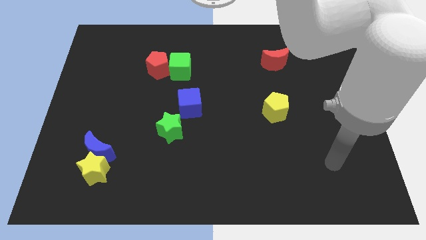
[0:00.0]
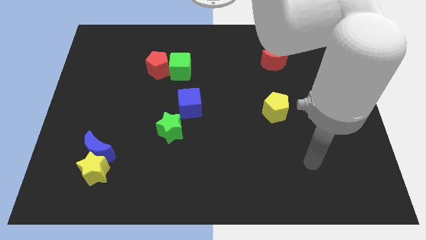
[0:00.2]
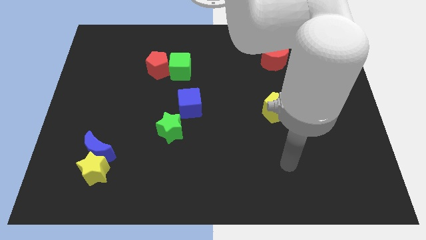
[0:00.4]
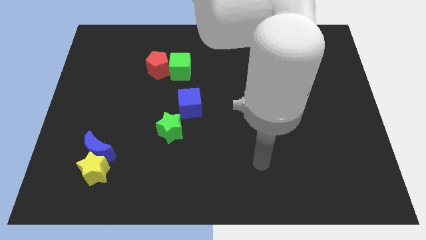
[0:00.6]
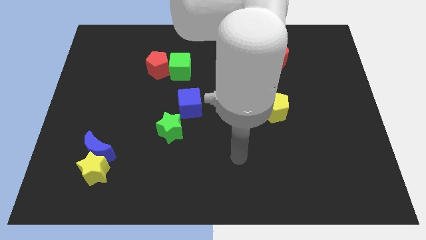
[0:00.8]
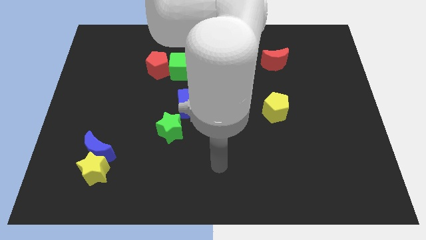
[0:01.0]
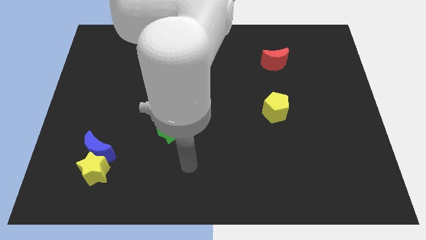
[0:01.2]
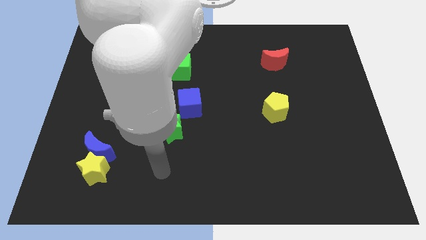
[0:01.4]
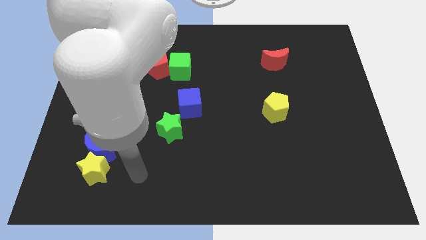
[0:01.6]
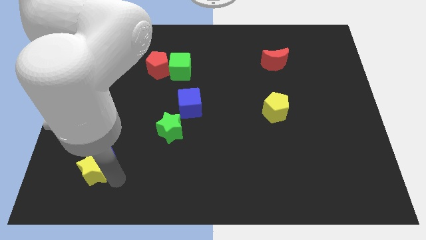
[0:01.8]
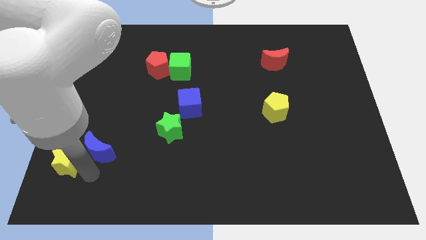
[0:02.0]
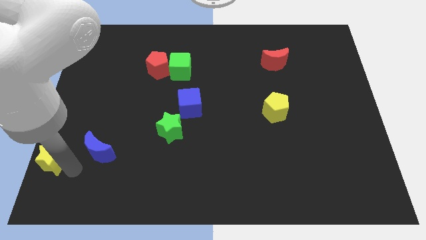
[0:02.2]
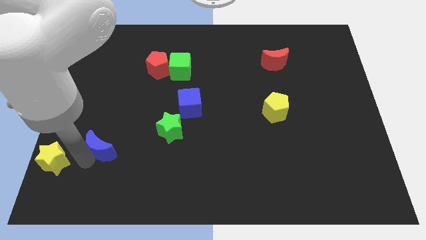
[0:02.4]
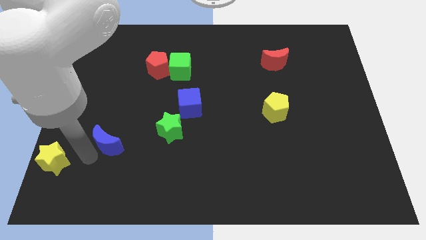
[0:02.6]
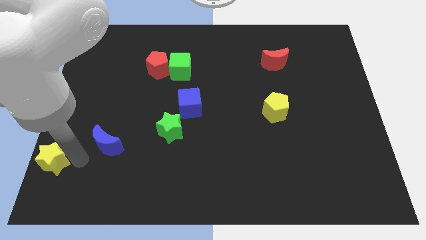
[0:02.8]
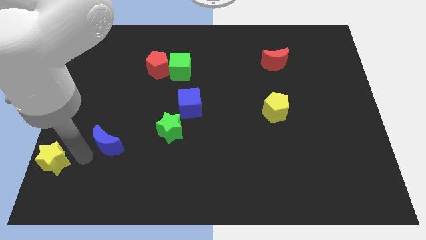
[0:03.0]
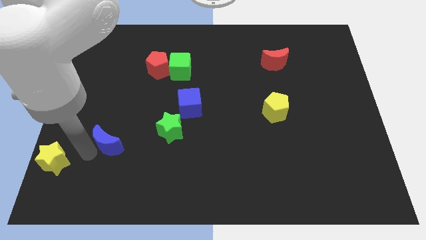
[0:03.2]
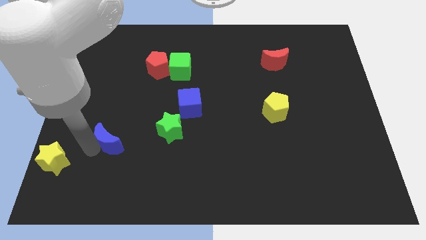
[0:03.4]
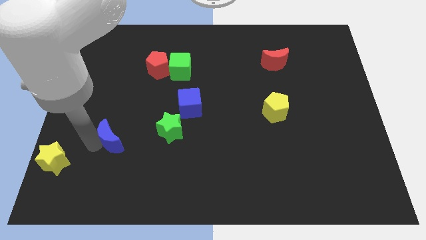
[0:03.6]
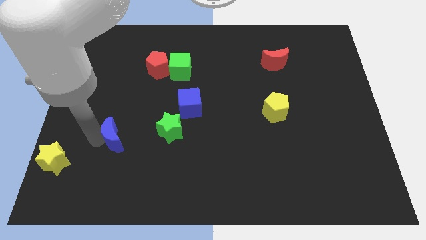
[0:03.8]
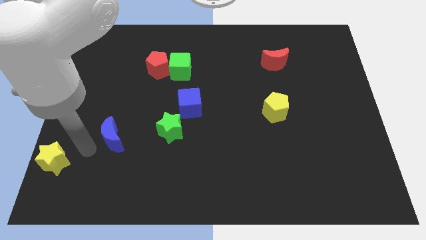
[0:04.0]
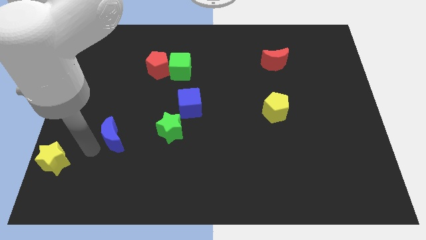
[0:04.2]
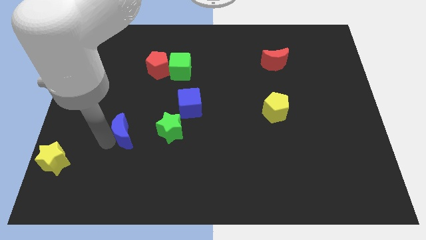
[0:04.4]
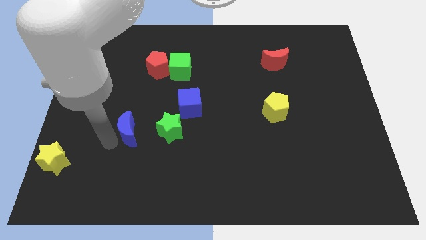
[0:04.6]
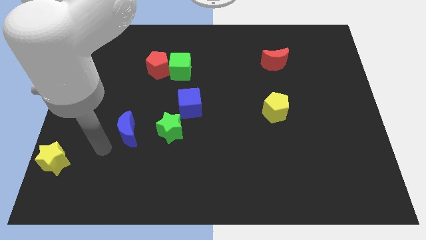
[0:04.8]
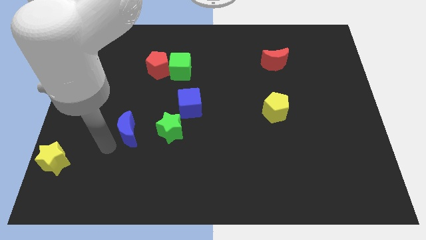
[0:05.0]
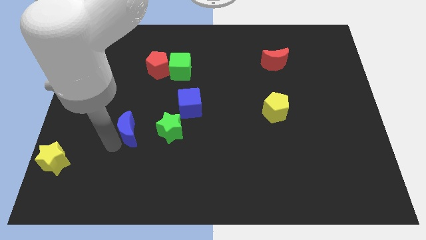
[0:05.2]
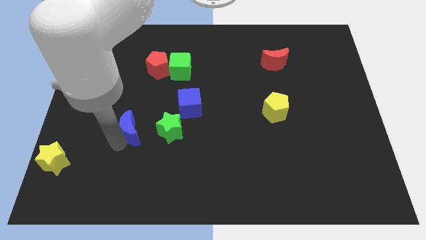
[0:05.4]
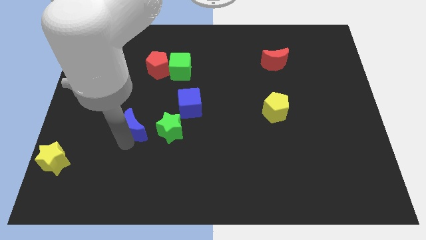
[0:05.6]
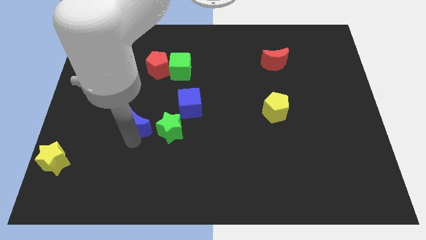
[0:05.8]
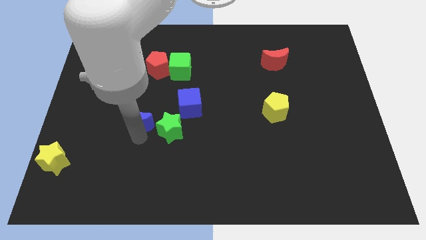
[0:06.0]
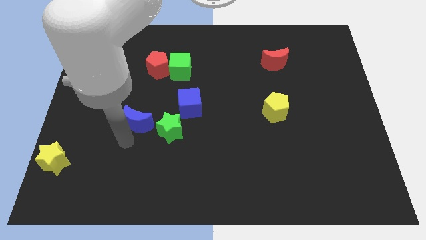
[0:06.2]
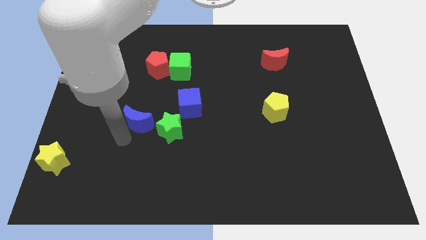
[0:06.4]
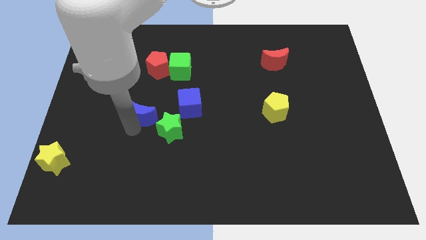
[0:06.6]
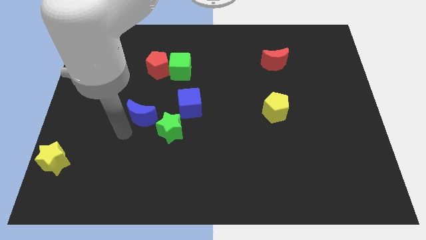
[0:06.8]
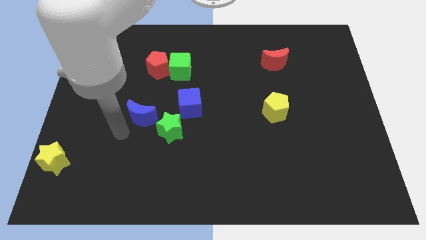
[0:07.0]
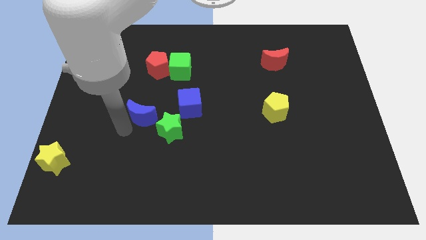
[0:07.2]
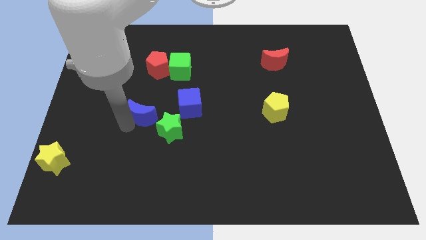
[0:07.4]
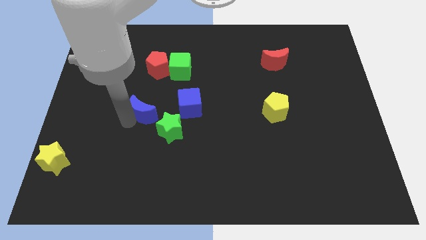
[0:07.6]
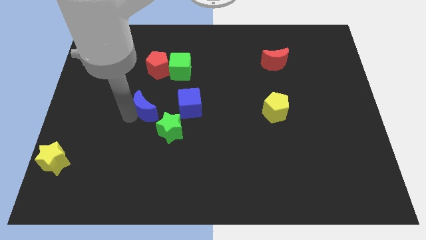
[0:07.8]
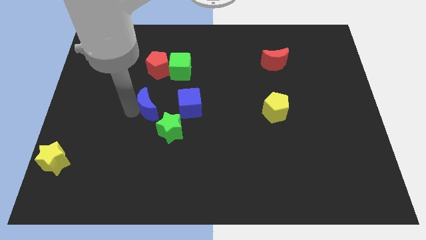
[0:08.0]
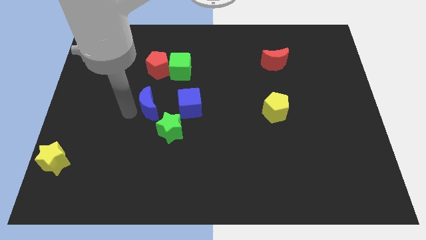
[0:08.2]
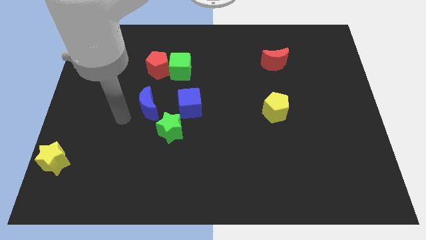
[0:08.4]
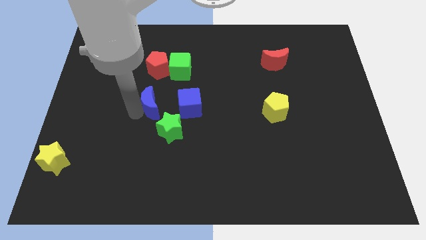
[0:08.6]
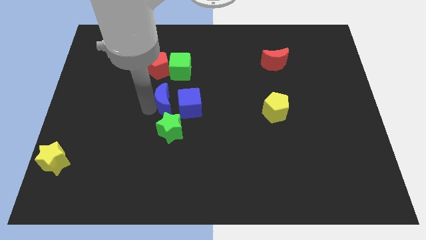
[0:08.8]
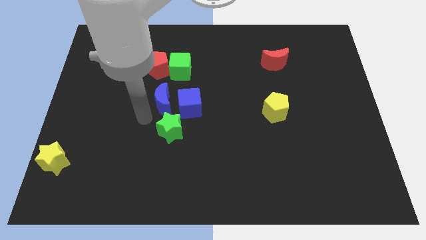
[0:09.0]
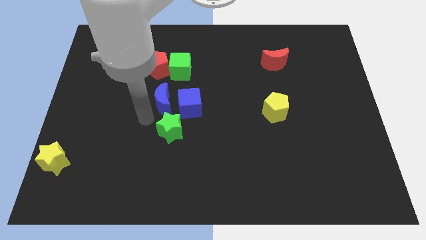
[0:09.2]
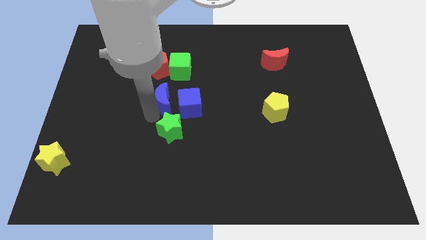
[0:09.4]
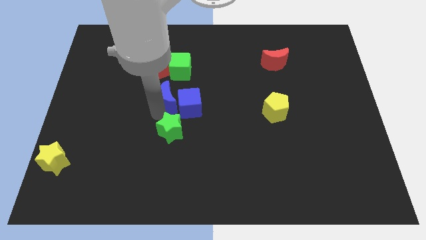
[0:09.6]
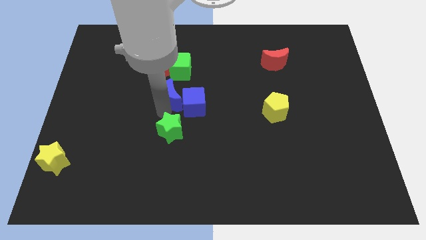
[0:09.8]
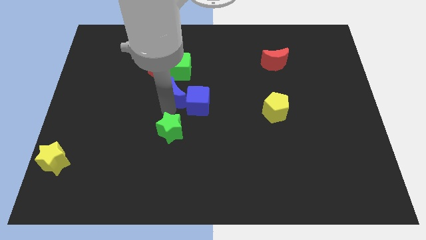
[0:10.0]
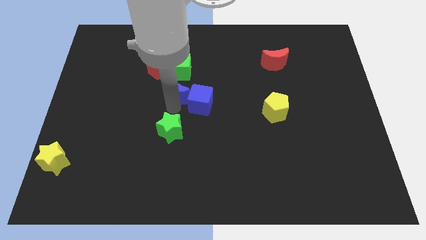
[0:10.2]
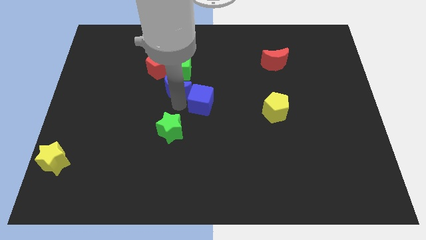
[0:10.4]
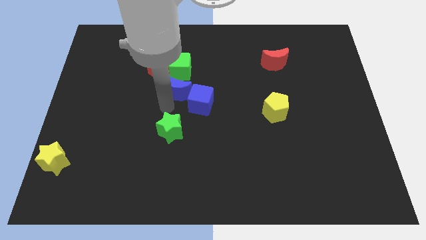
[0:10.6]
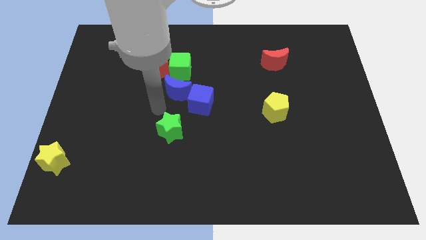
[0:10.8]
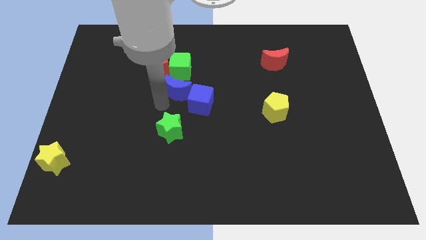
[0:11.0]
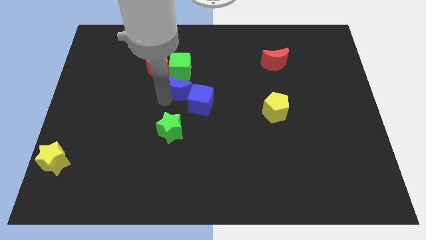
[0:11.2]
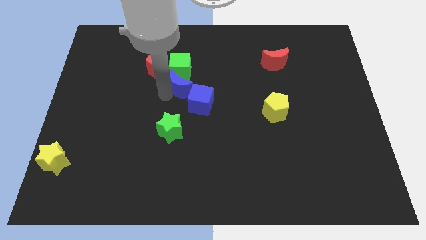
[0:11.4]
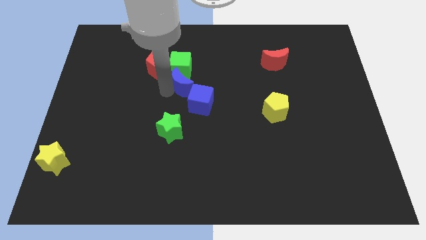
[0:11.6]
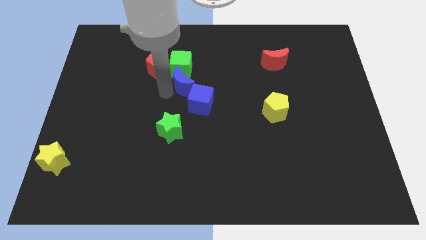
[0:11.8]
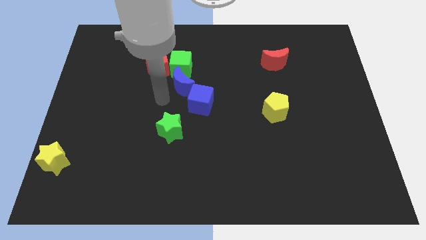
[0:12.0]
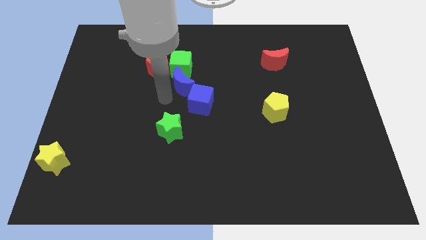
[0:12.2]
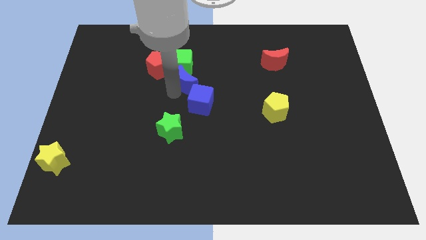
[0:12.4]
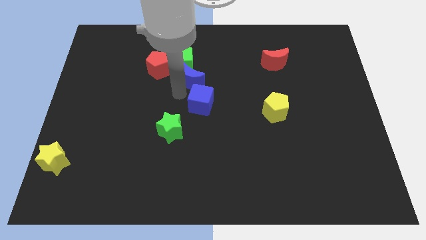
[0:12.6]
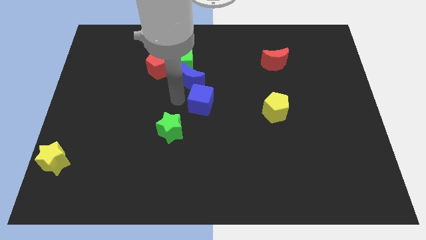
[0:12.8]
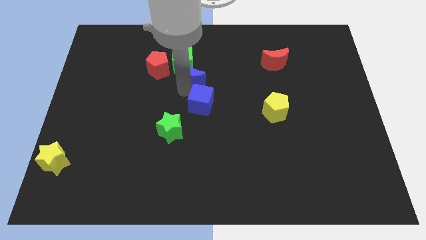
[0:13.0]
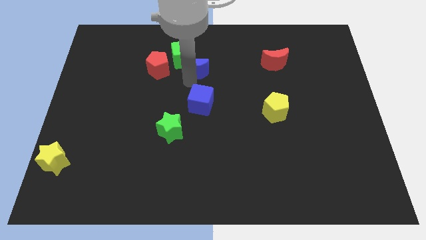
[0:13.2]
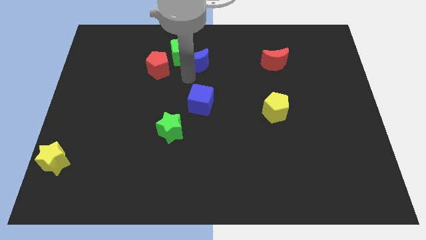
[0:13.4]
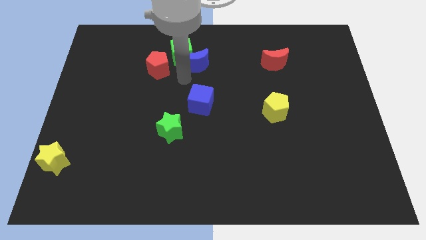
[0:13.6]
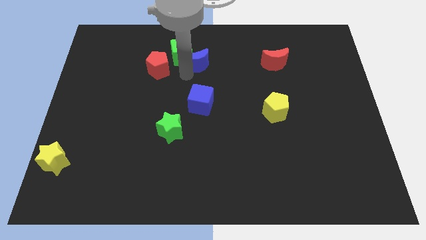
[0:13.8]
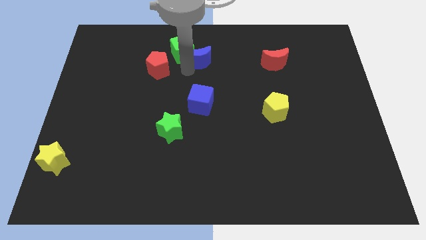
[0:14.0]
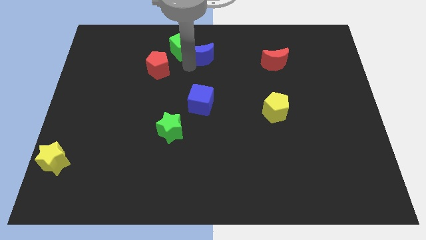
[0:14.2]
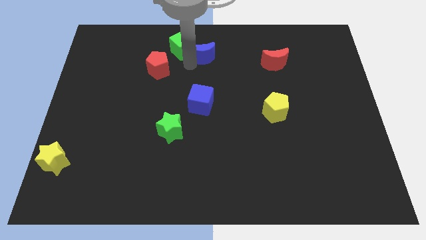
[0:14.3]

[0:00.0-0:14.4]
move the blue moon to the top side

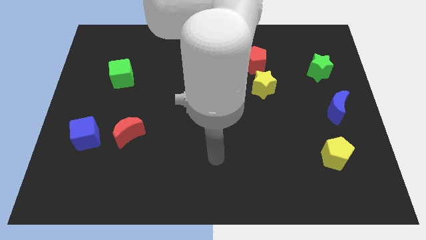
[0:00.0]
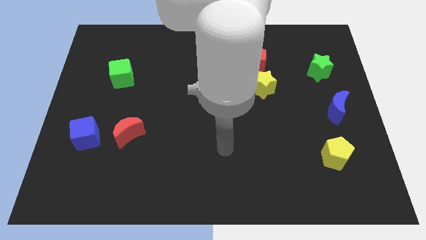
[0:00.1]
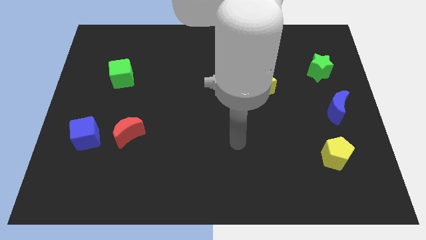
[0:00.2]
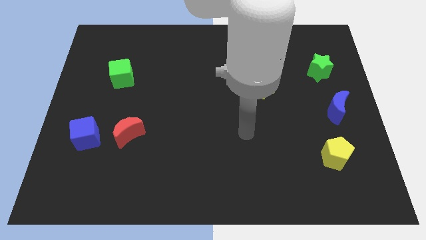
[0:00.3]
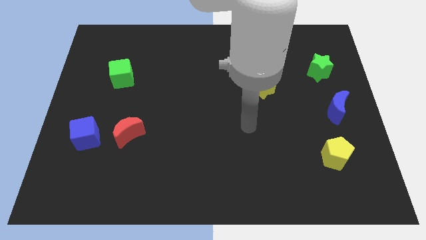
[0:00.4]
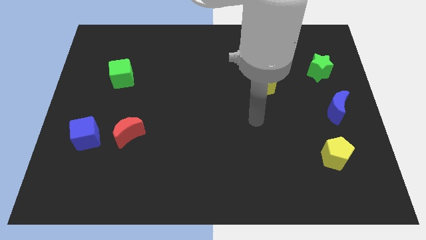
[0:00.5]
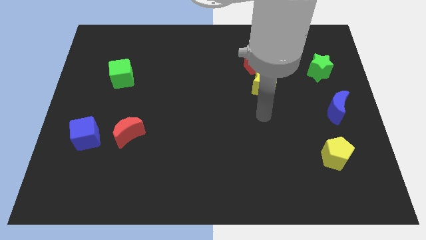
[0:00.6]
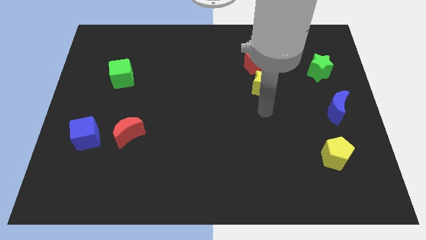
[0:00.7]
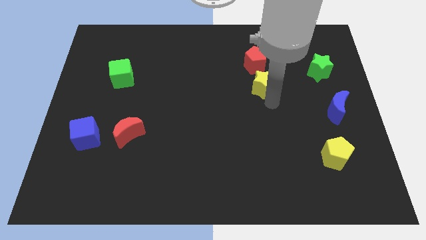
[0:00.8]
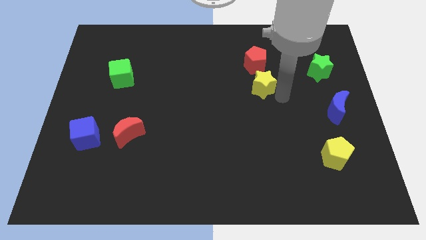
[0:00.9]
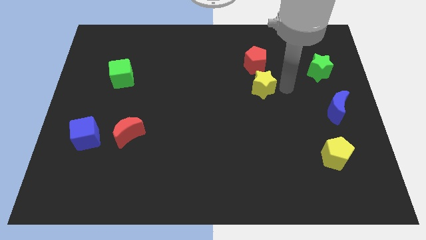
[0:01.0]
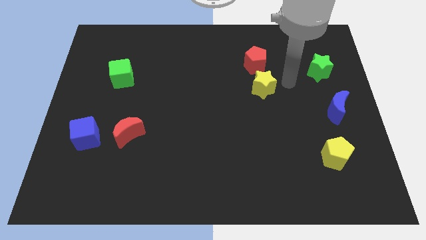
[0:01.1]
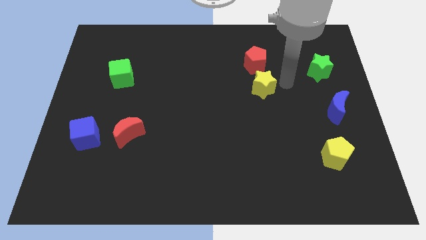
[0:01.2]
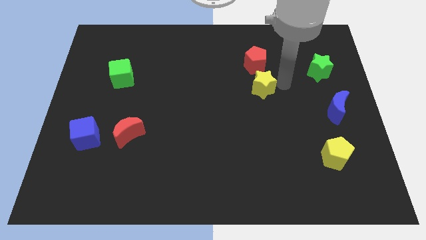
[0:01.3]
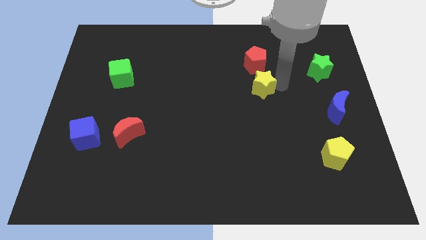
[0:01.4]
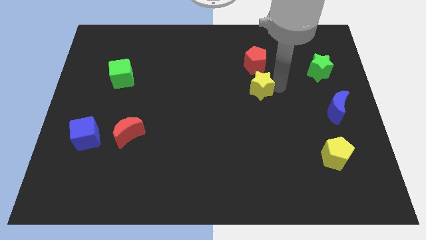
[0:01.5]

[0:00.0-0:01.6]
move the yellow star to the middle of the board
